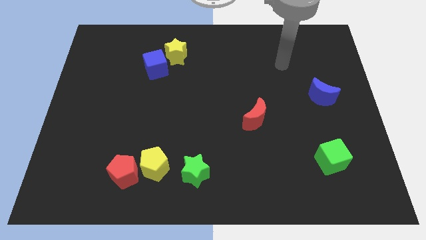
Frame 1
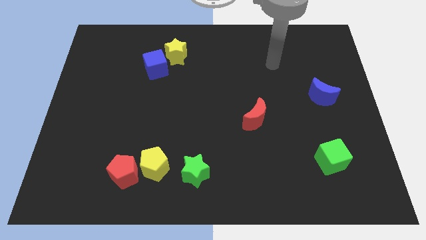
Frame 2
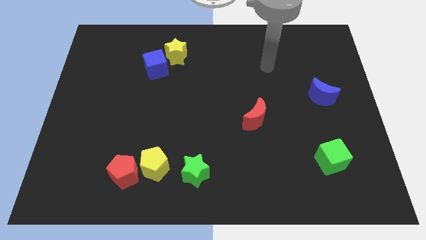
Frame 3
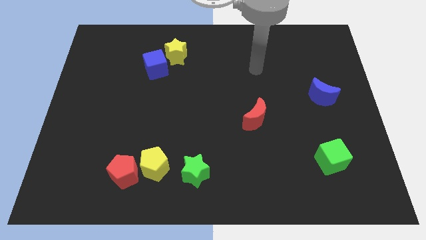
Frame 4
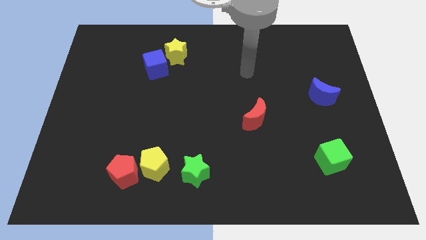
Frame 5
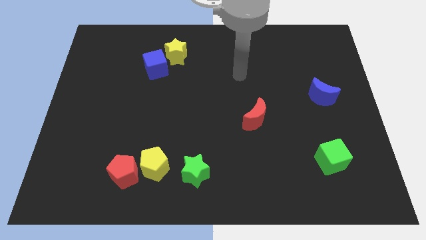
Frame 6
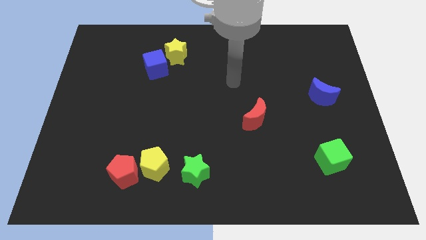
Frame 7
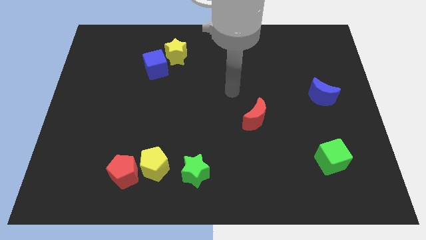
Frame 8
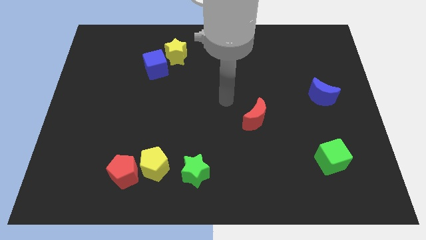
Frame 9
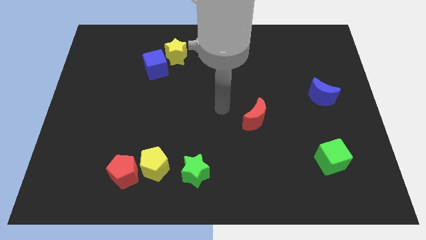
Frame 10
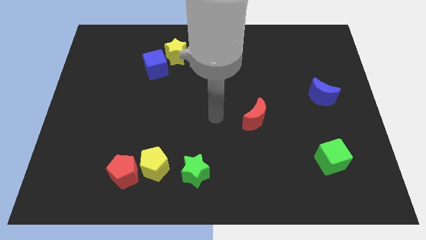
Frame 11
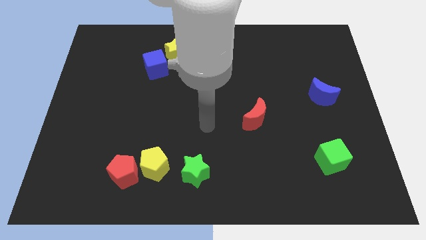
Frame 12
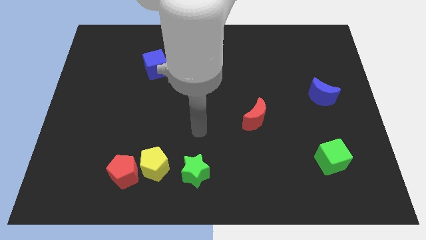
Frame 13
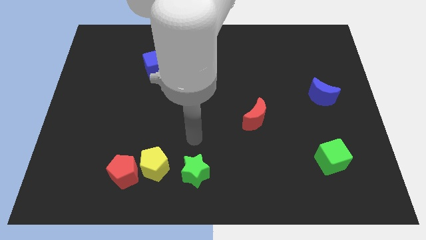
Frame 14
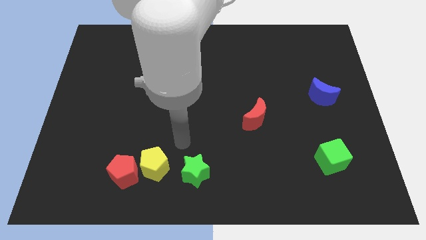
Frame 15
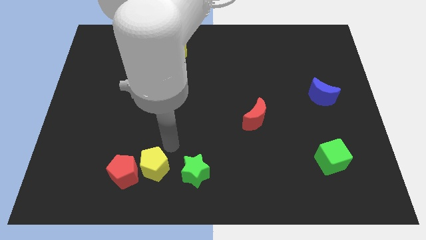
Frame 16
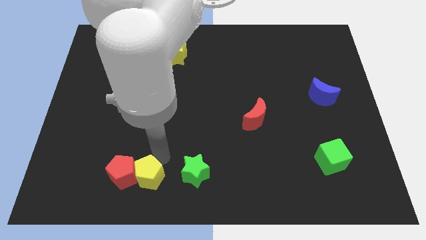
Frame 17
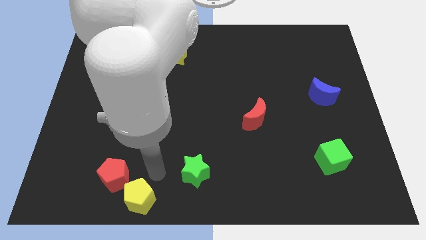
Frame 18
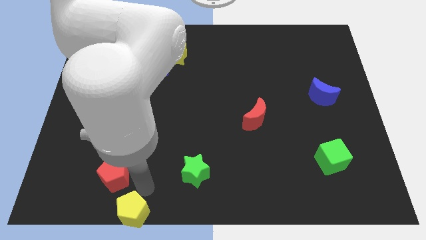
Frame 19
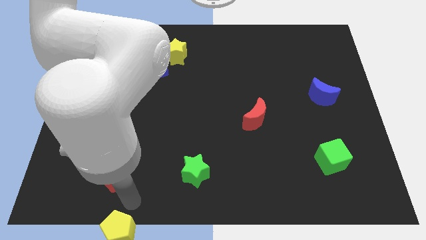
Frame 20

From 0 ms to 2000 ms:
pull the red pentagon apart from the yellow pentagon

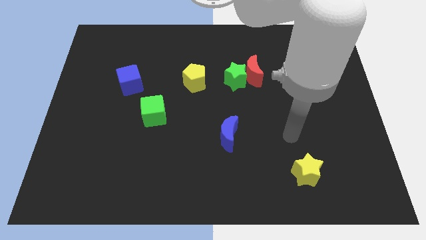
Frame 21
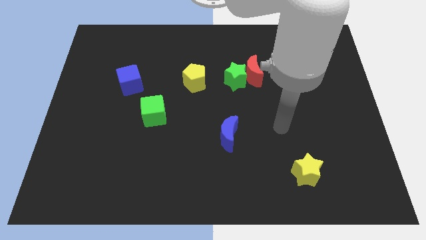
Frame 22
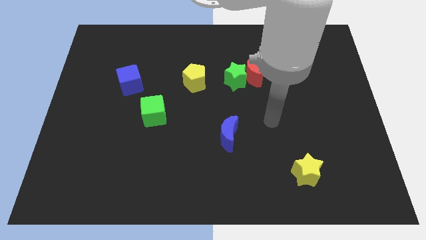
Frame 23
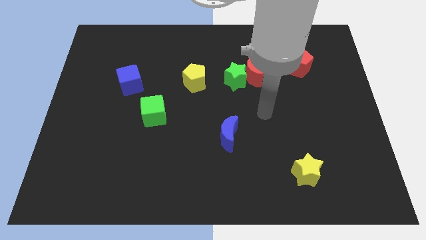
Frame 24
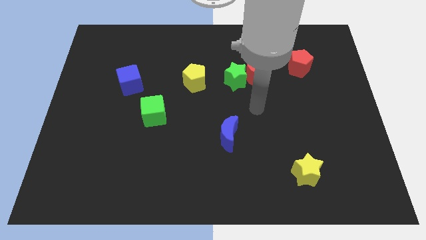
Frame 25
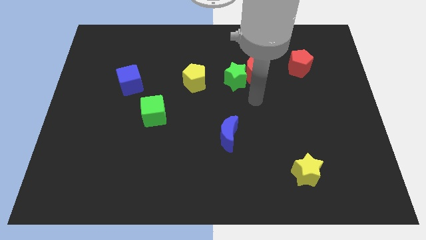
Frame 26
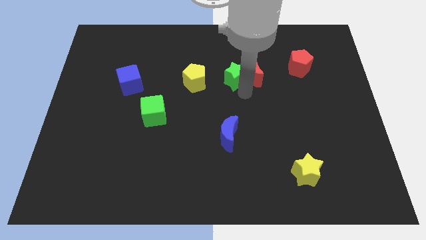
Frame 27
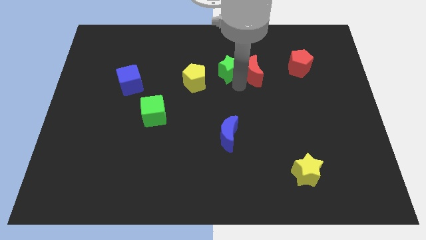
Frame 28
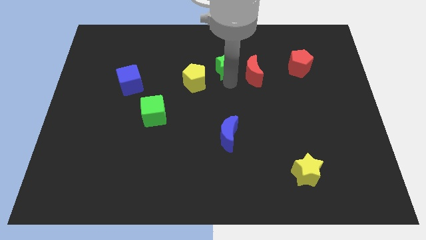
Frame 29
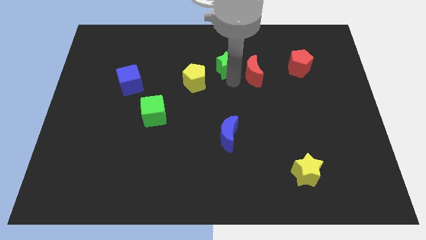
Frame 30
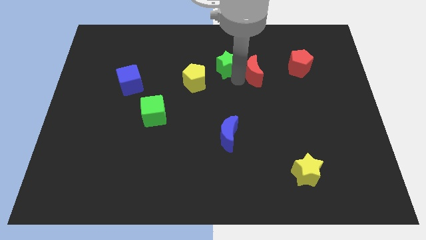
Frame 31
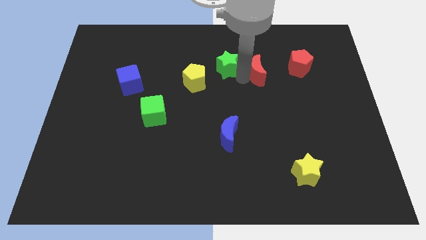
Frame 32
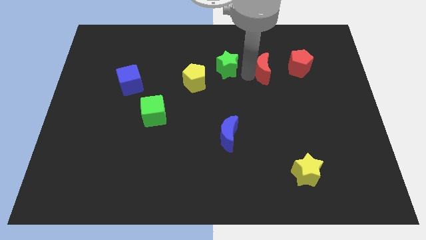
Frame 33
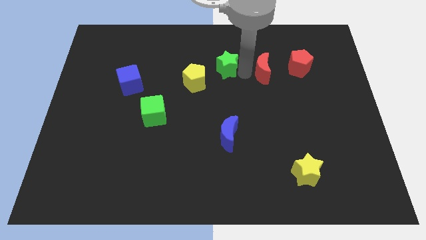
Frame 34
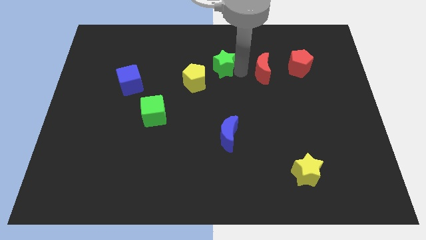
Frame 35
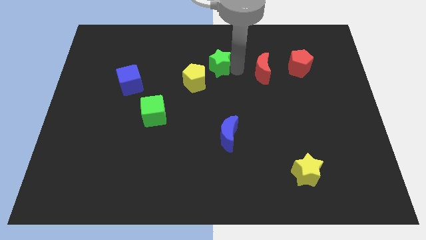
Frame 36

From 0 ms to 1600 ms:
separate the red moon from the green star

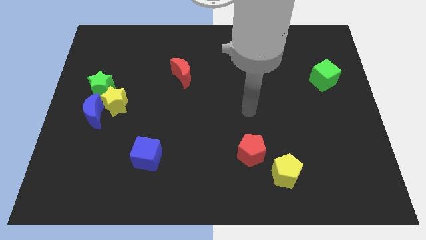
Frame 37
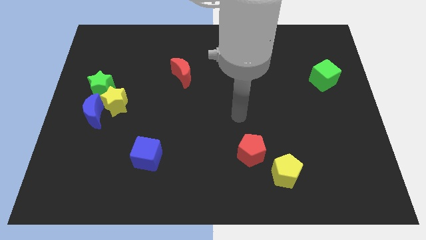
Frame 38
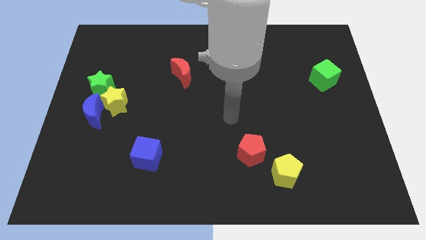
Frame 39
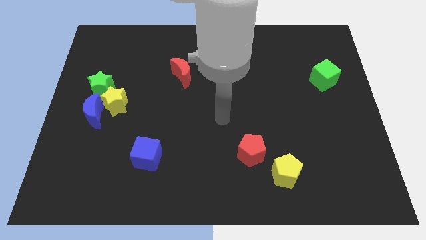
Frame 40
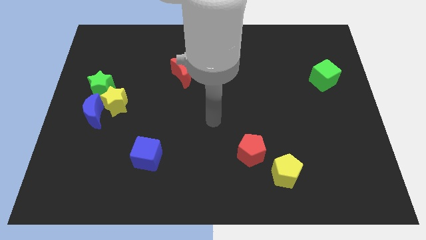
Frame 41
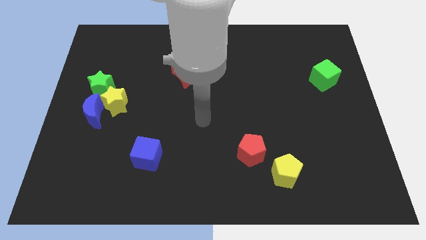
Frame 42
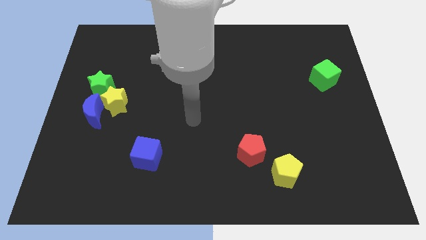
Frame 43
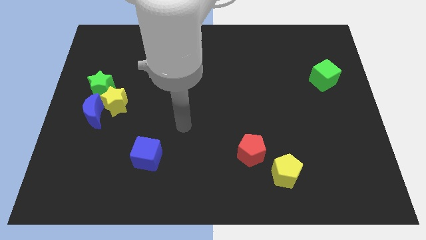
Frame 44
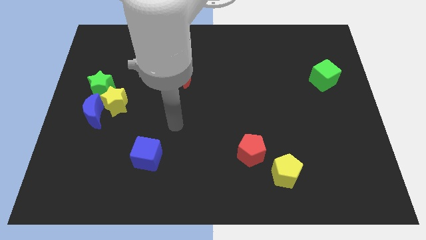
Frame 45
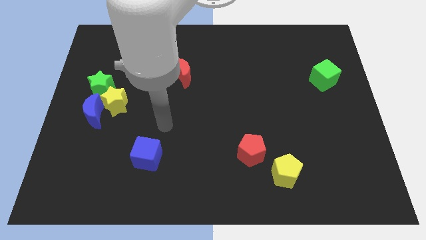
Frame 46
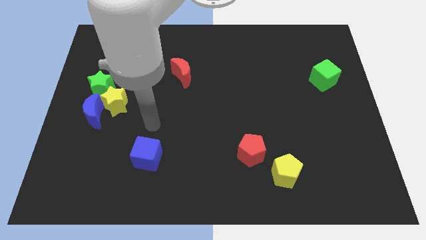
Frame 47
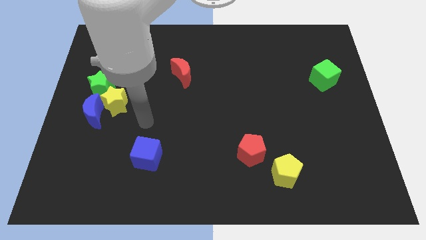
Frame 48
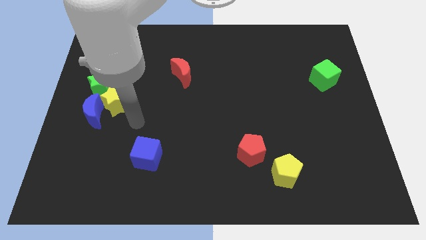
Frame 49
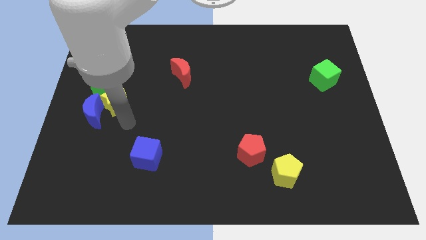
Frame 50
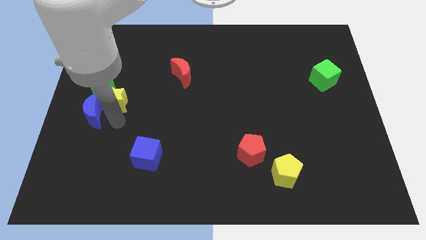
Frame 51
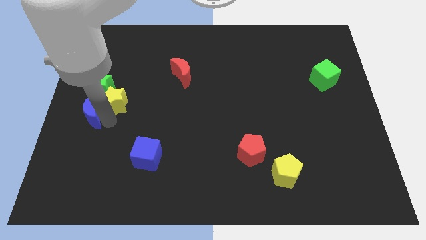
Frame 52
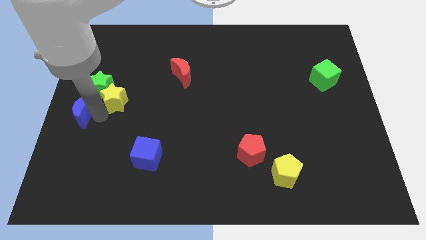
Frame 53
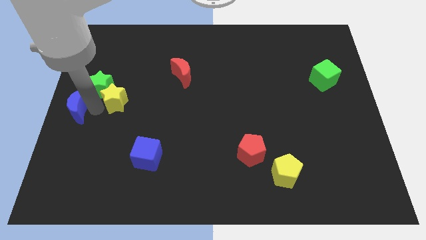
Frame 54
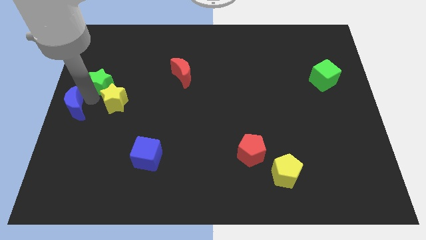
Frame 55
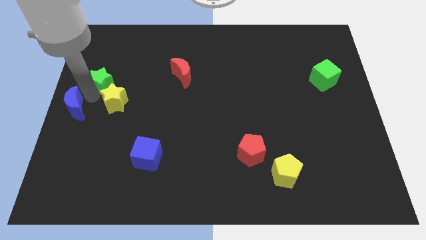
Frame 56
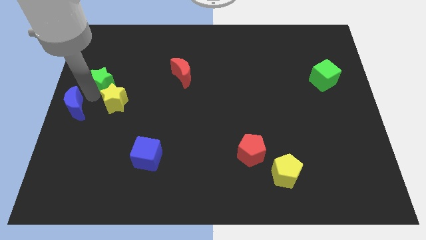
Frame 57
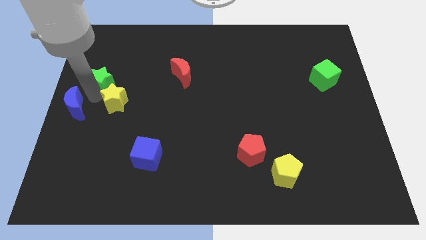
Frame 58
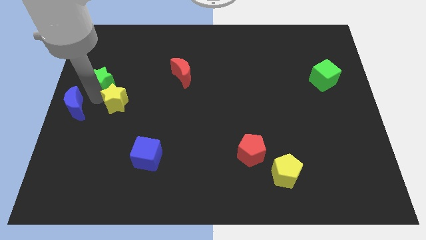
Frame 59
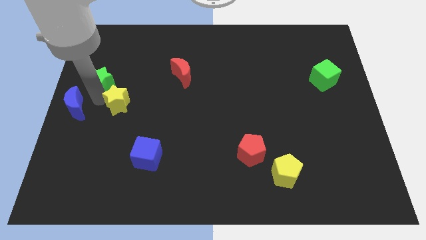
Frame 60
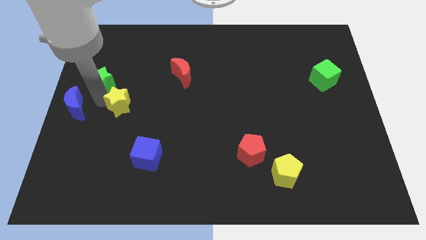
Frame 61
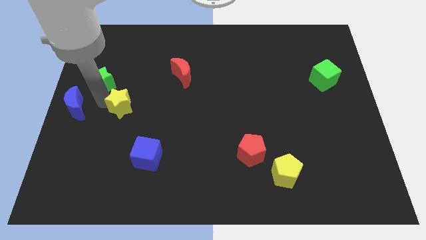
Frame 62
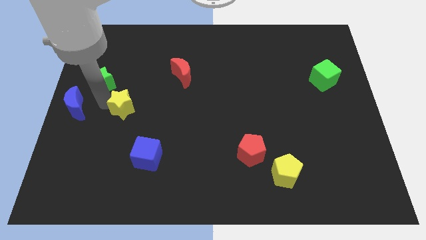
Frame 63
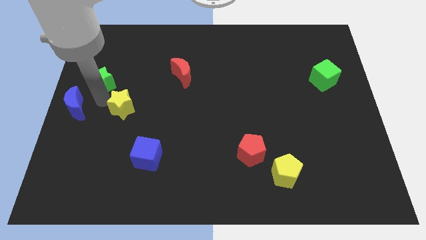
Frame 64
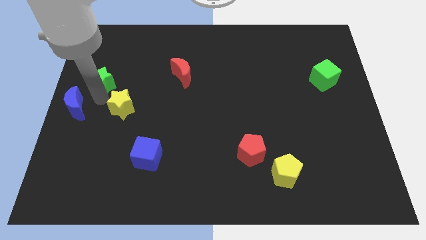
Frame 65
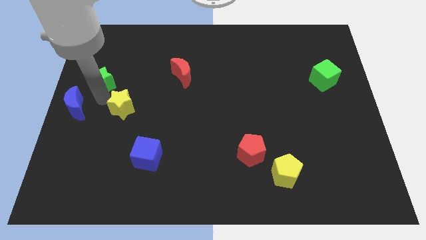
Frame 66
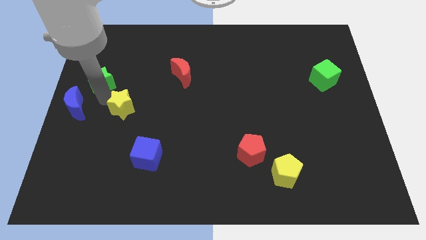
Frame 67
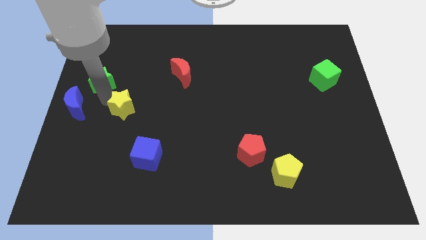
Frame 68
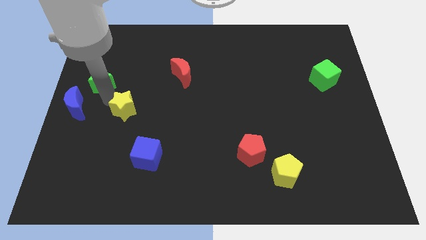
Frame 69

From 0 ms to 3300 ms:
pull the yellow star apart from the blue moon and green star

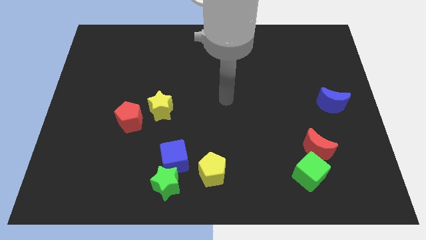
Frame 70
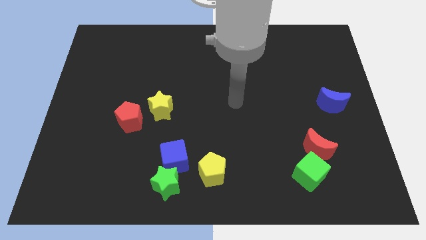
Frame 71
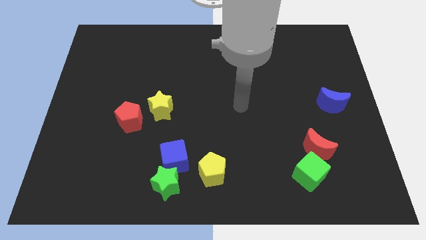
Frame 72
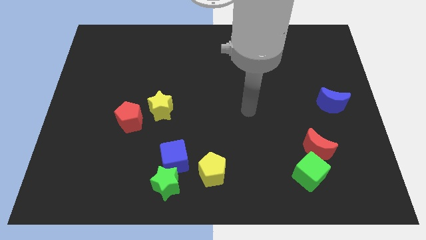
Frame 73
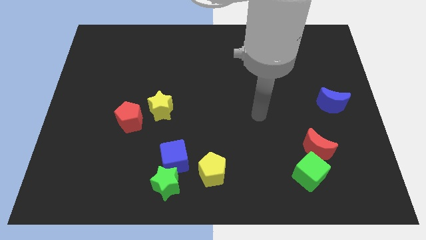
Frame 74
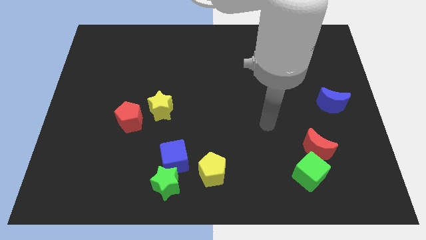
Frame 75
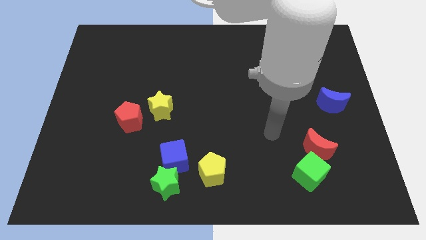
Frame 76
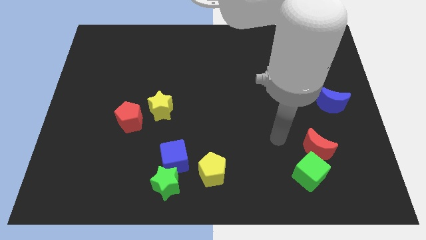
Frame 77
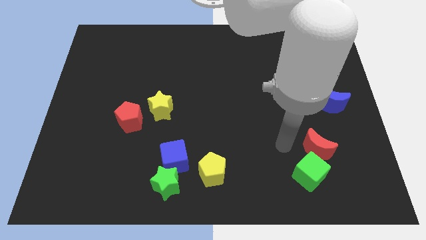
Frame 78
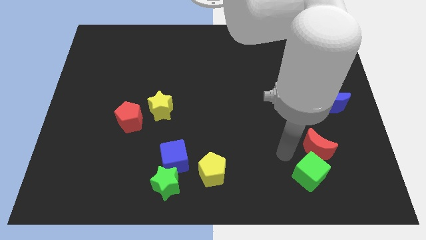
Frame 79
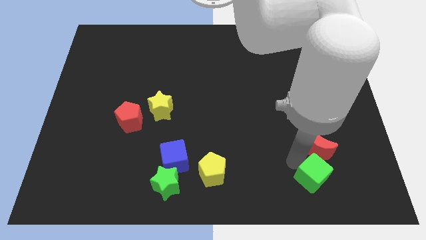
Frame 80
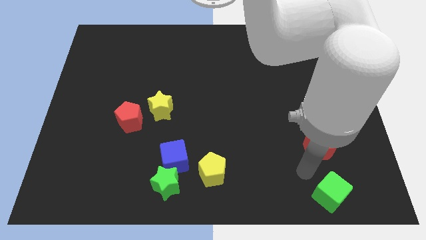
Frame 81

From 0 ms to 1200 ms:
pull the red moon apart from the green cube

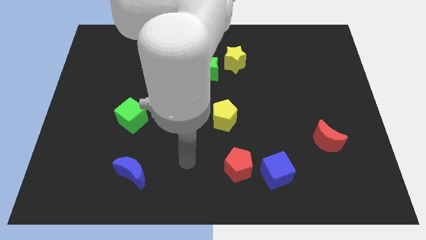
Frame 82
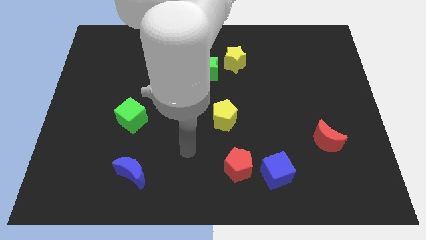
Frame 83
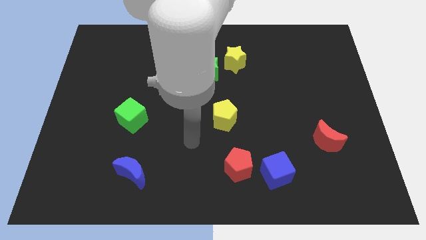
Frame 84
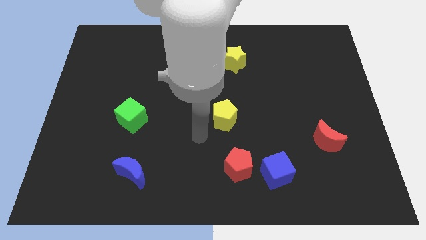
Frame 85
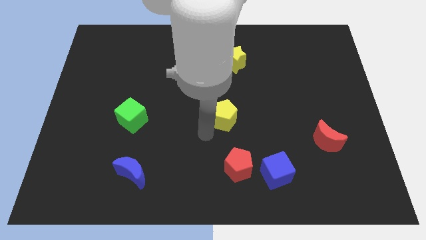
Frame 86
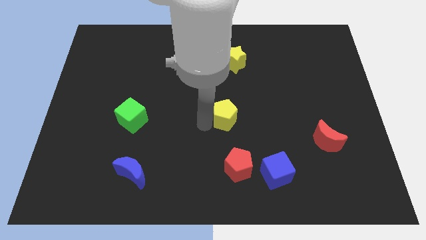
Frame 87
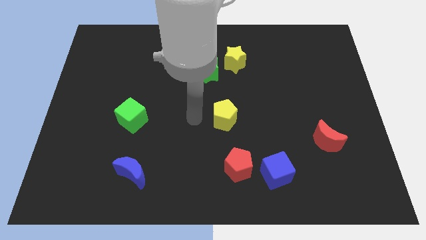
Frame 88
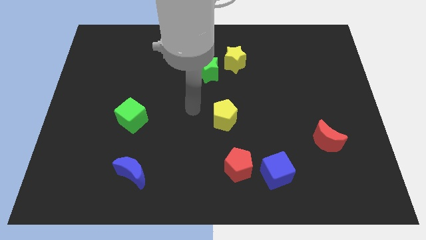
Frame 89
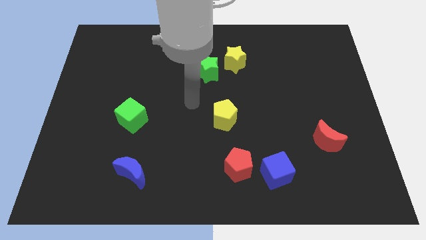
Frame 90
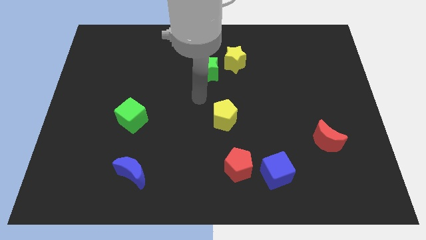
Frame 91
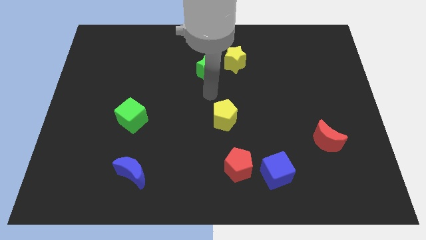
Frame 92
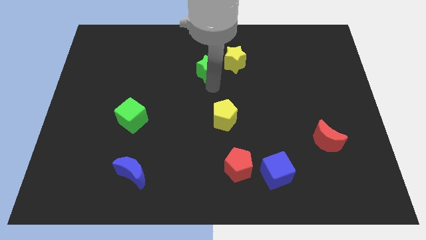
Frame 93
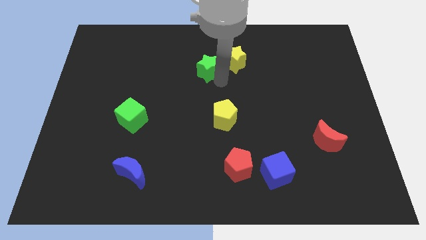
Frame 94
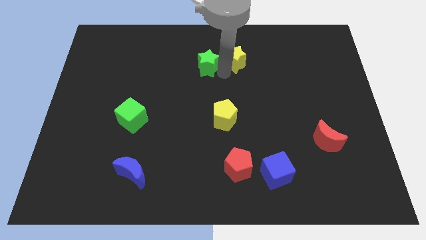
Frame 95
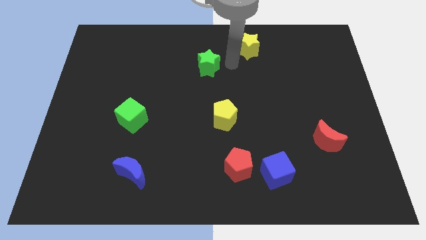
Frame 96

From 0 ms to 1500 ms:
pull the green star apart from the yellow star
